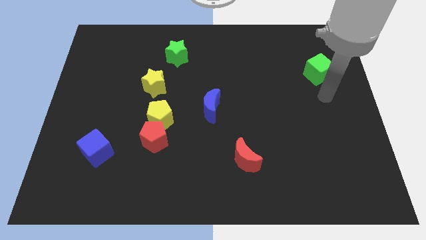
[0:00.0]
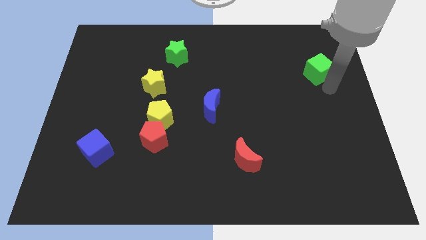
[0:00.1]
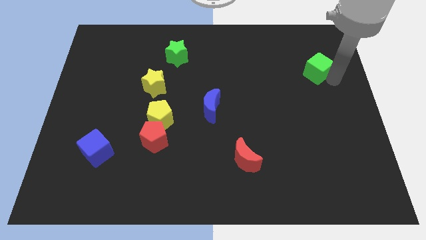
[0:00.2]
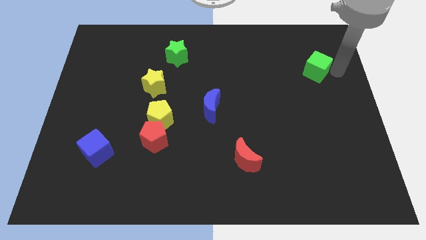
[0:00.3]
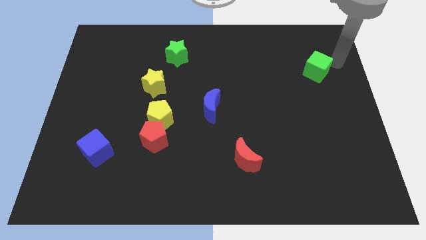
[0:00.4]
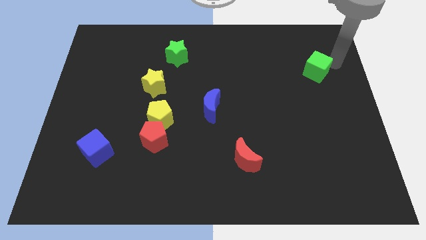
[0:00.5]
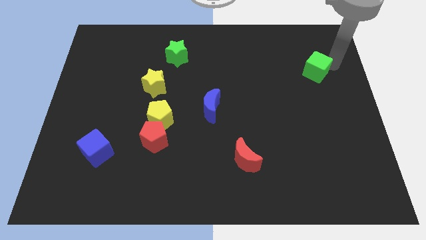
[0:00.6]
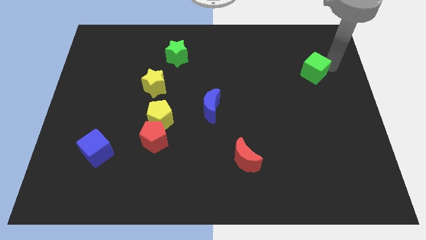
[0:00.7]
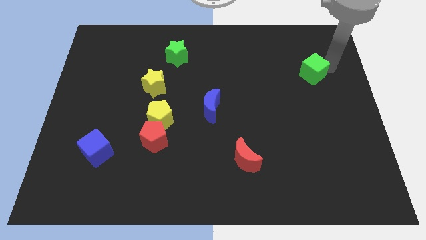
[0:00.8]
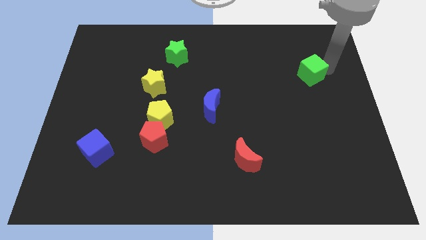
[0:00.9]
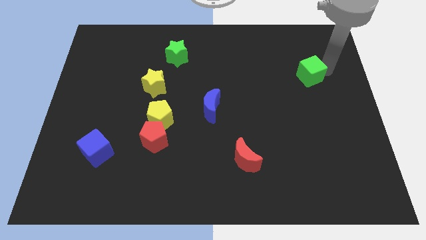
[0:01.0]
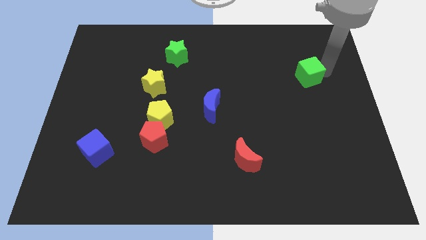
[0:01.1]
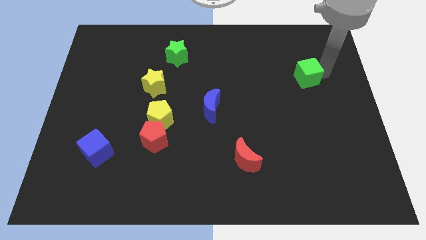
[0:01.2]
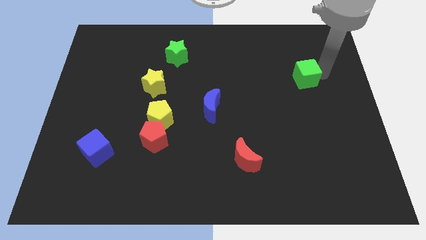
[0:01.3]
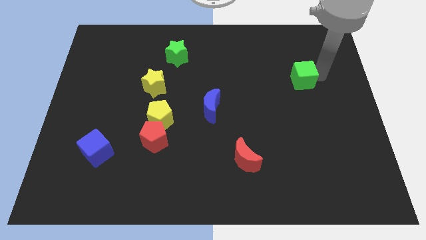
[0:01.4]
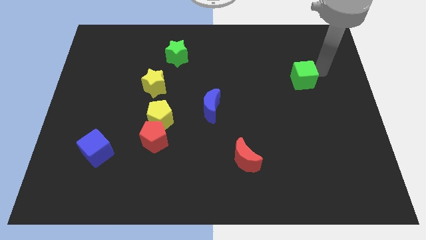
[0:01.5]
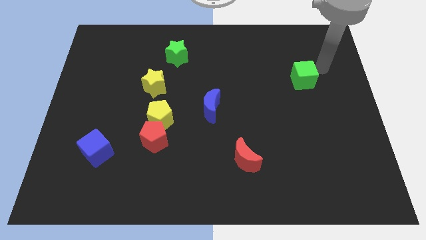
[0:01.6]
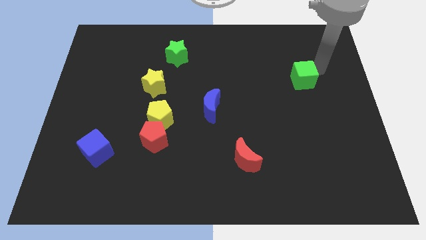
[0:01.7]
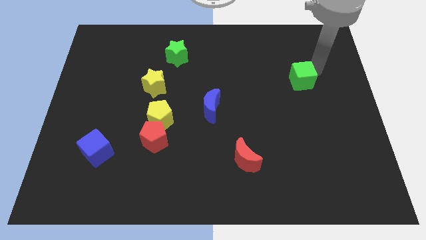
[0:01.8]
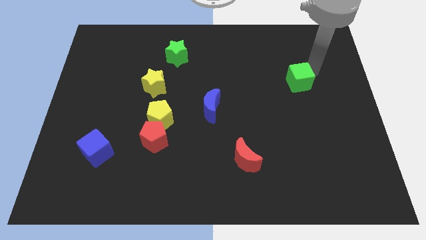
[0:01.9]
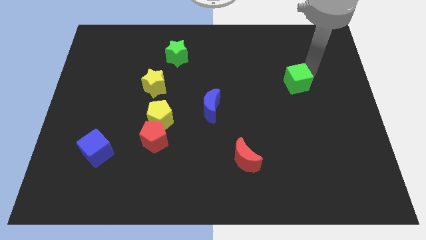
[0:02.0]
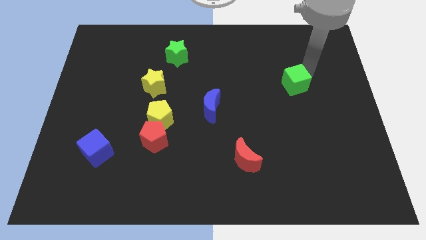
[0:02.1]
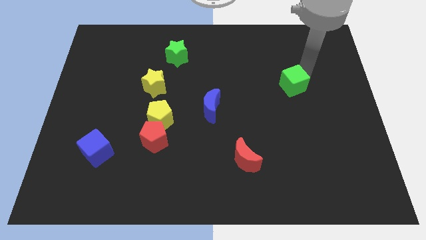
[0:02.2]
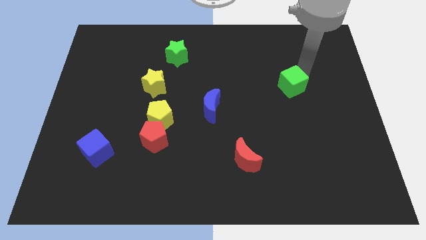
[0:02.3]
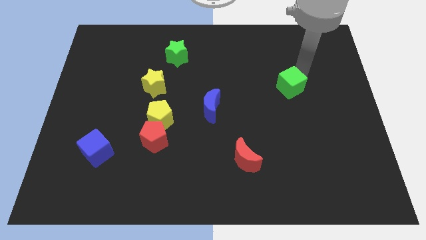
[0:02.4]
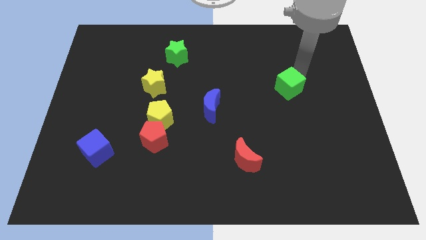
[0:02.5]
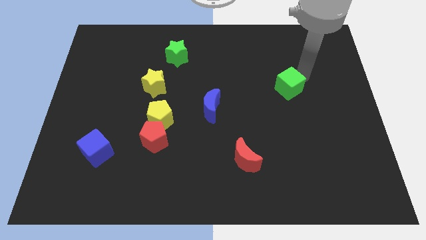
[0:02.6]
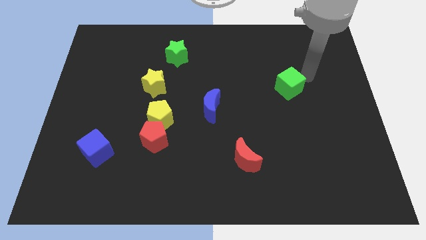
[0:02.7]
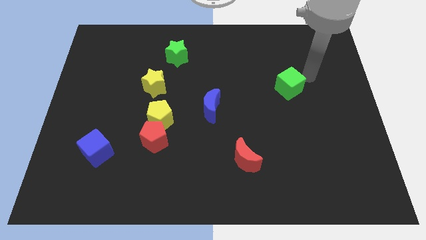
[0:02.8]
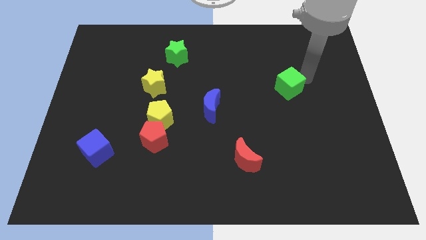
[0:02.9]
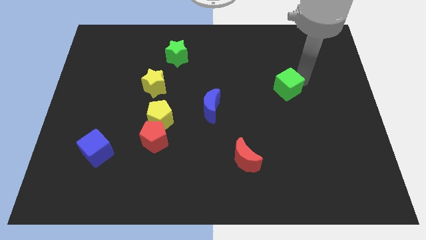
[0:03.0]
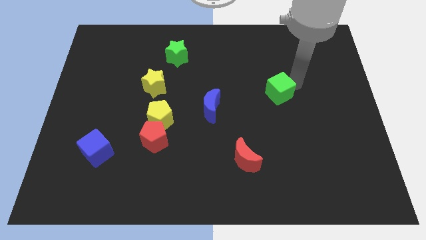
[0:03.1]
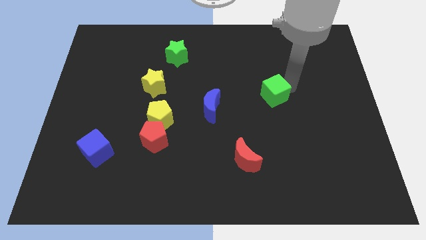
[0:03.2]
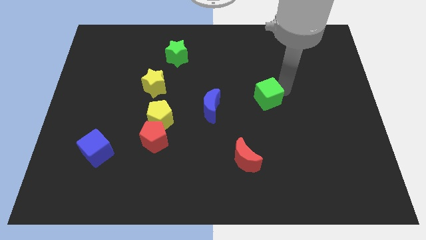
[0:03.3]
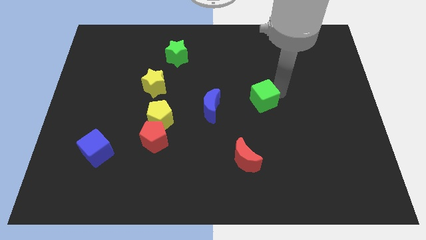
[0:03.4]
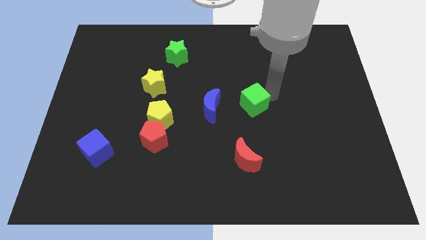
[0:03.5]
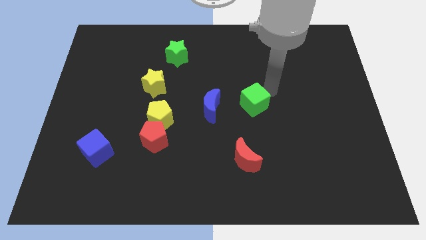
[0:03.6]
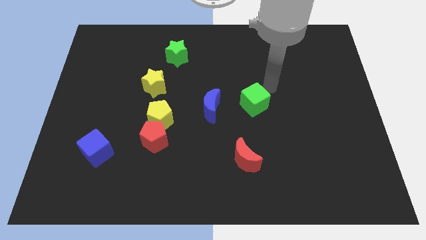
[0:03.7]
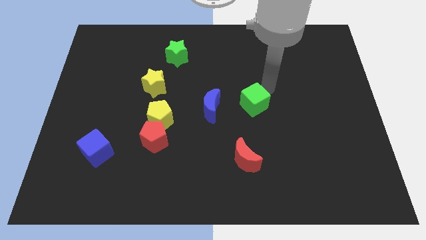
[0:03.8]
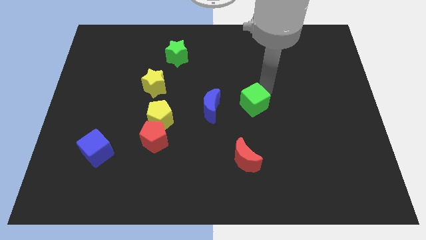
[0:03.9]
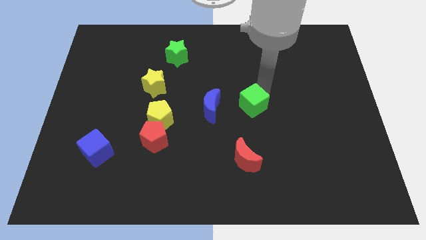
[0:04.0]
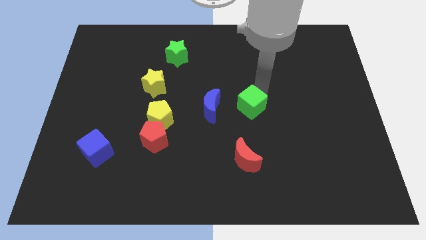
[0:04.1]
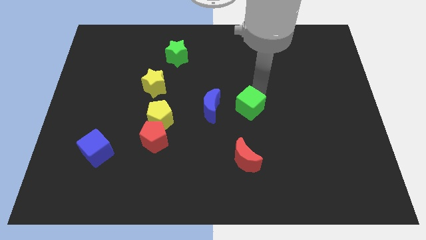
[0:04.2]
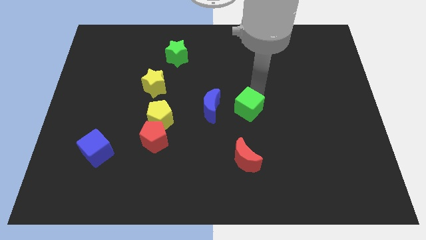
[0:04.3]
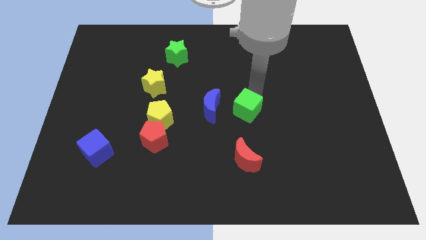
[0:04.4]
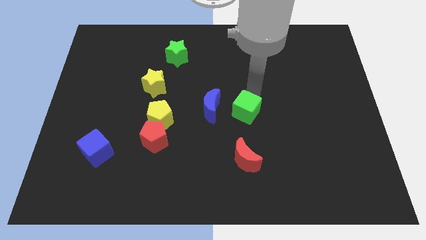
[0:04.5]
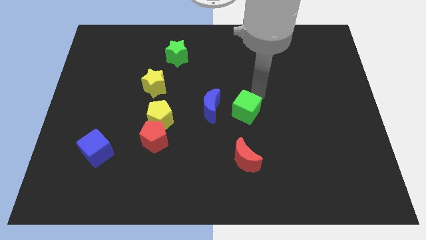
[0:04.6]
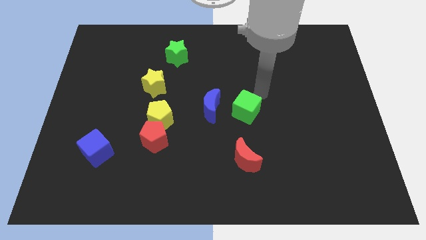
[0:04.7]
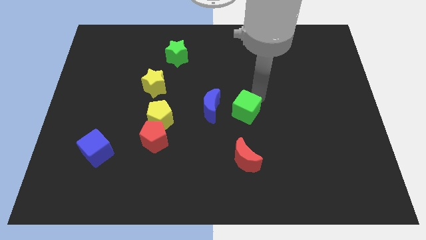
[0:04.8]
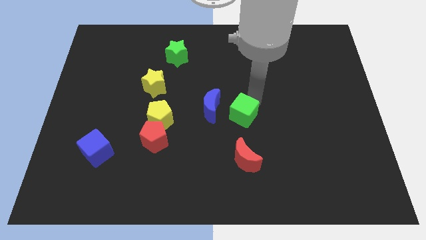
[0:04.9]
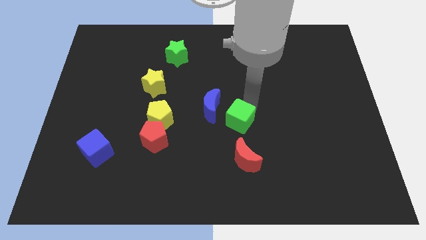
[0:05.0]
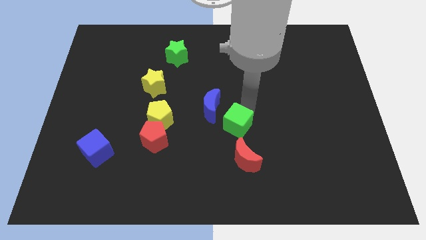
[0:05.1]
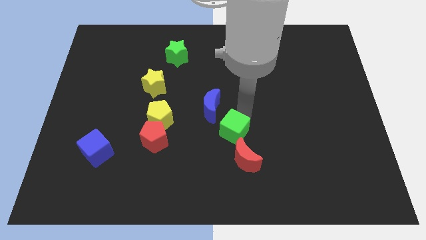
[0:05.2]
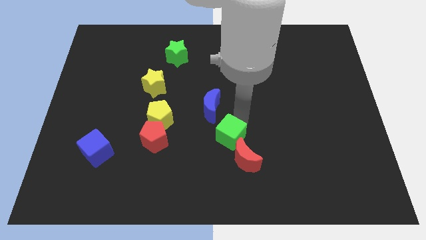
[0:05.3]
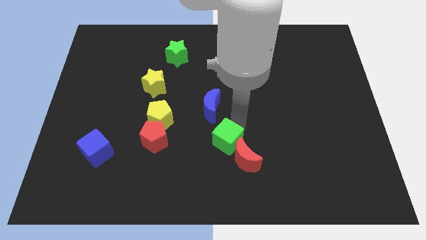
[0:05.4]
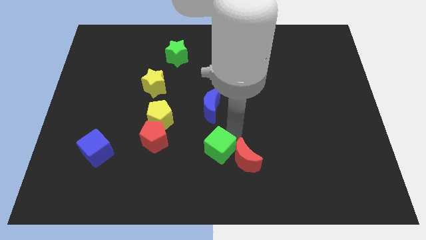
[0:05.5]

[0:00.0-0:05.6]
put the green cube to the left side of the red moon
